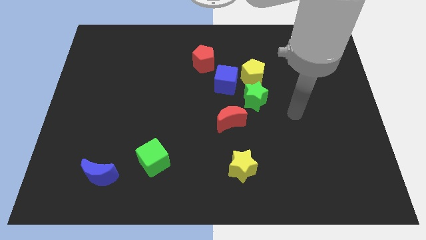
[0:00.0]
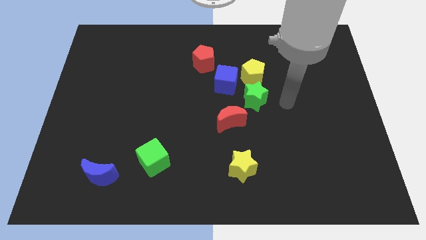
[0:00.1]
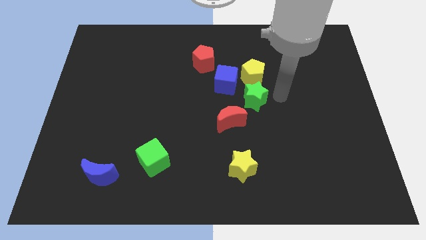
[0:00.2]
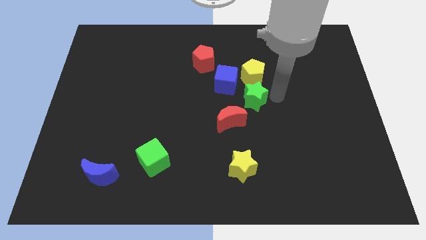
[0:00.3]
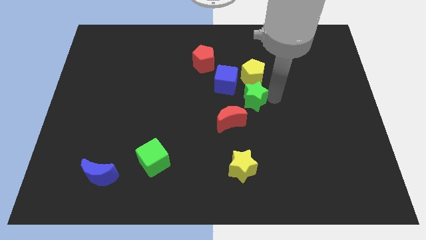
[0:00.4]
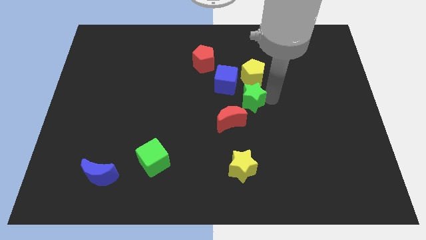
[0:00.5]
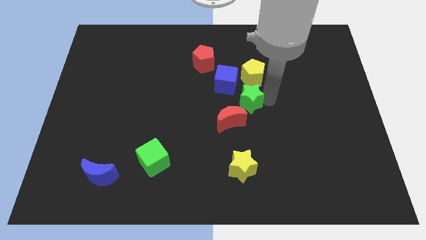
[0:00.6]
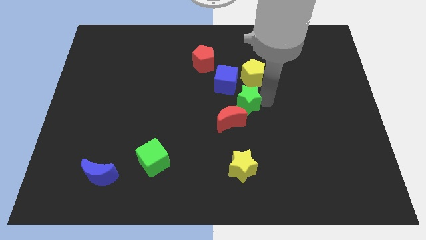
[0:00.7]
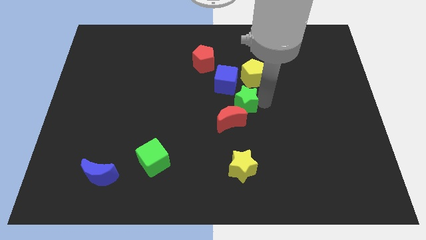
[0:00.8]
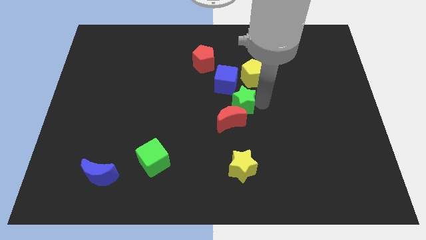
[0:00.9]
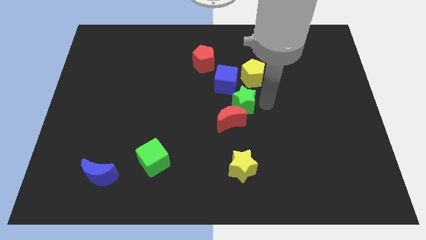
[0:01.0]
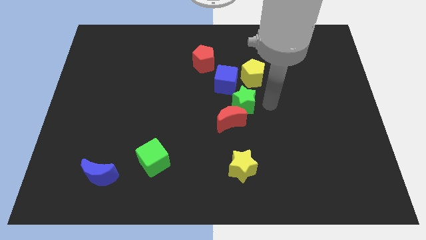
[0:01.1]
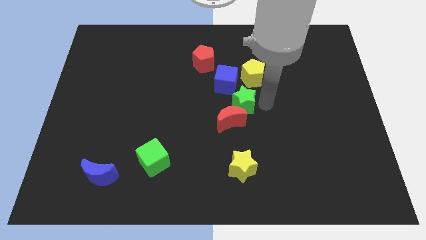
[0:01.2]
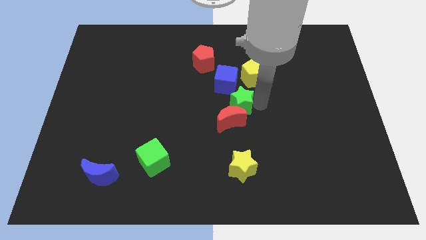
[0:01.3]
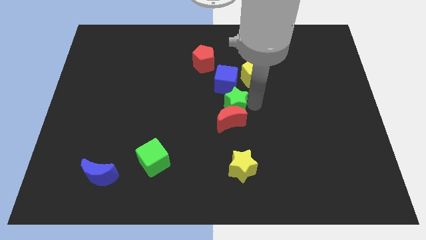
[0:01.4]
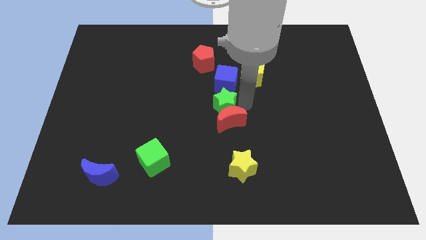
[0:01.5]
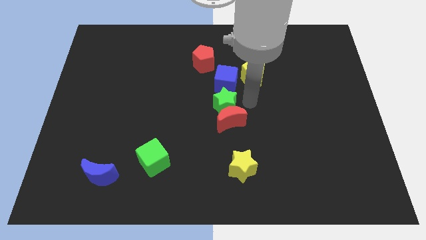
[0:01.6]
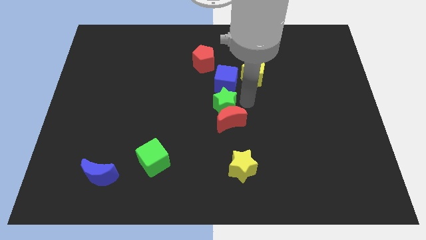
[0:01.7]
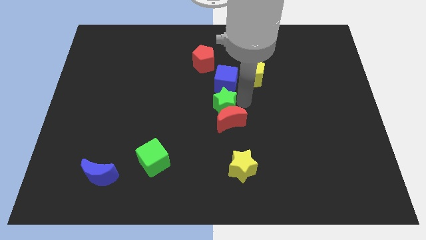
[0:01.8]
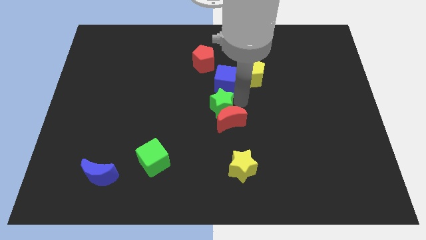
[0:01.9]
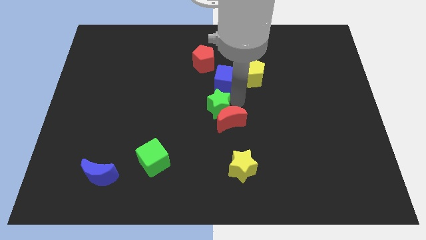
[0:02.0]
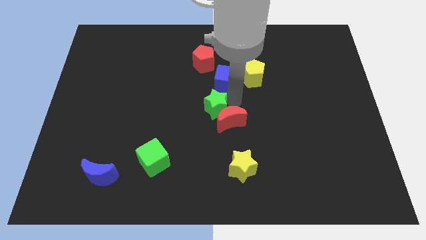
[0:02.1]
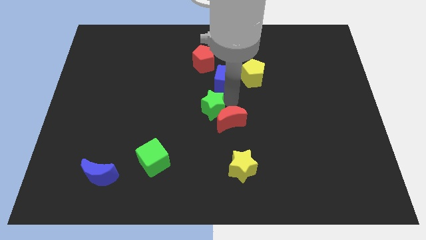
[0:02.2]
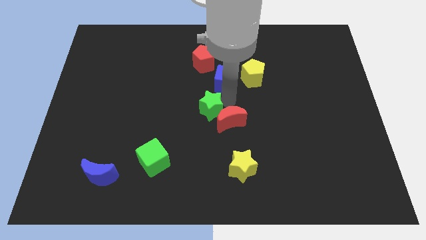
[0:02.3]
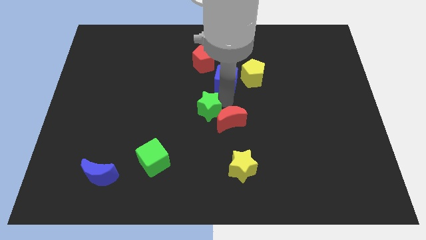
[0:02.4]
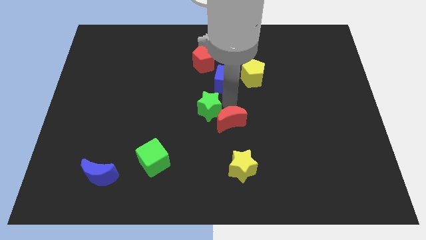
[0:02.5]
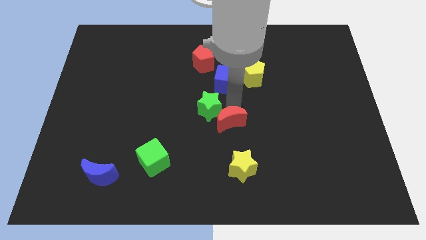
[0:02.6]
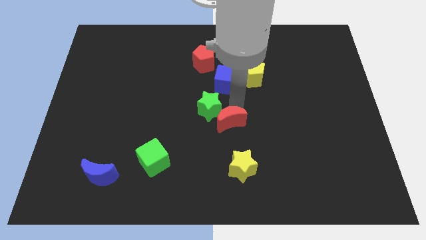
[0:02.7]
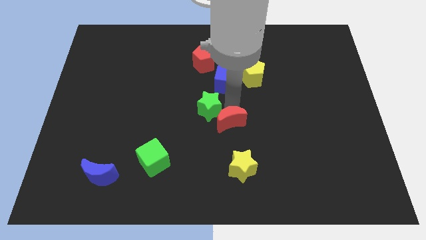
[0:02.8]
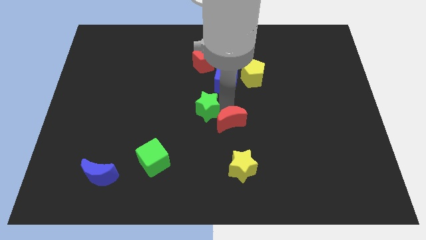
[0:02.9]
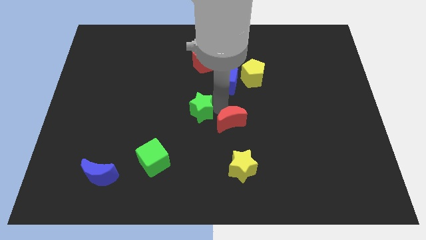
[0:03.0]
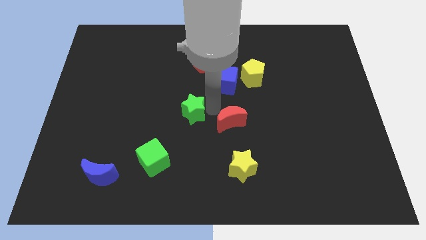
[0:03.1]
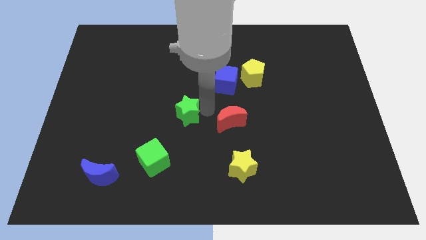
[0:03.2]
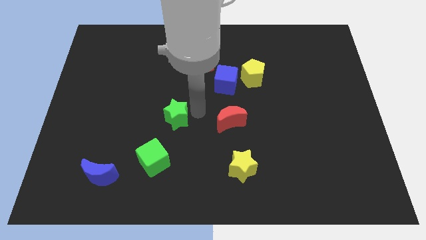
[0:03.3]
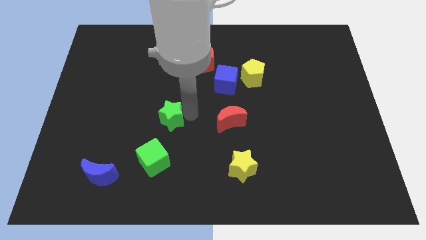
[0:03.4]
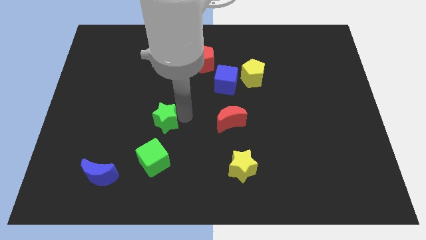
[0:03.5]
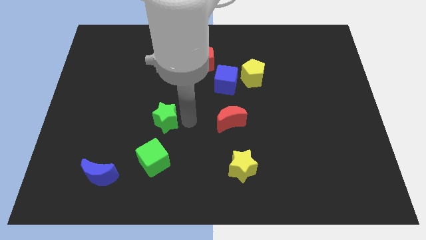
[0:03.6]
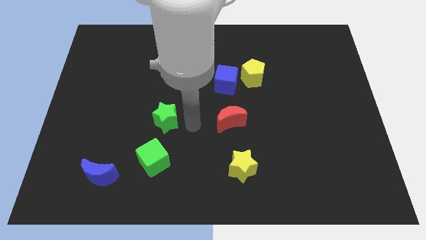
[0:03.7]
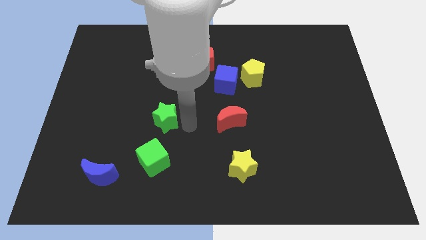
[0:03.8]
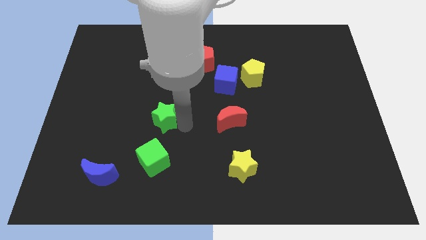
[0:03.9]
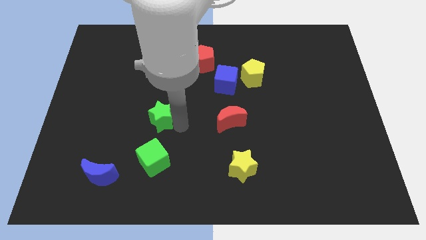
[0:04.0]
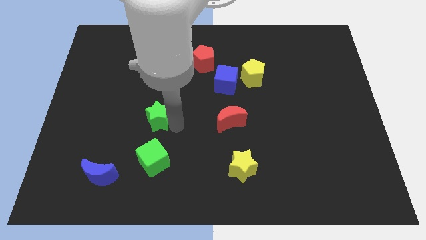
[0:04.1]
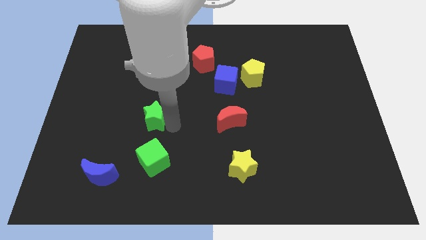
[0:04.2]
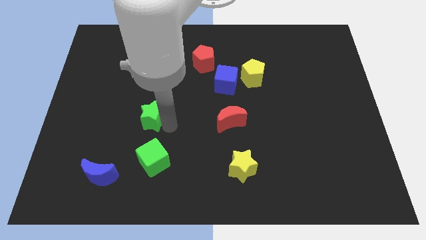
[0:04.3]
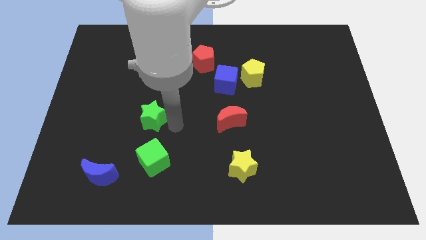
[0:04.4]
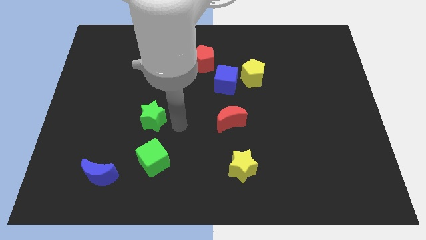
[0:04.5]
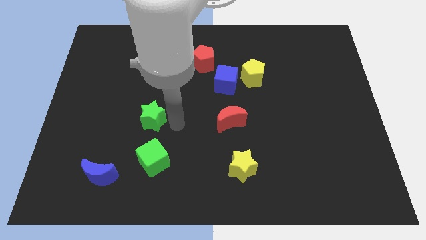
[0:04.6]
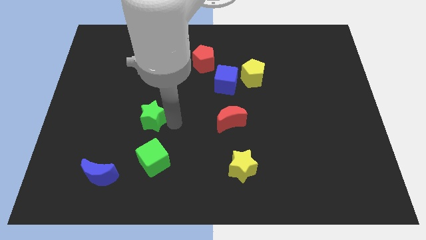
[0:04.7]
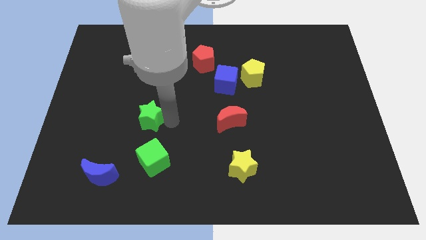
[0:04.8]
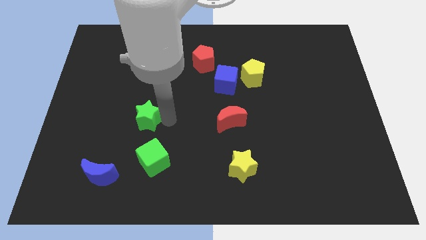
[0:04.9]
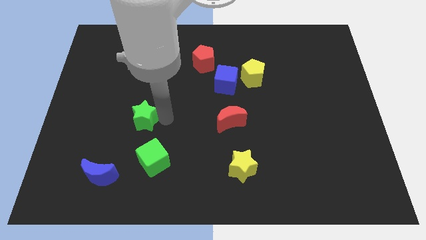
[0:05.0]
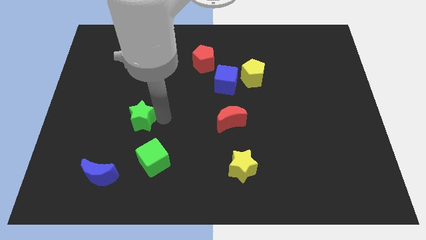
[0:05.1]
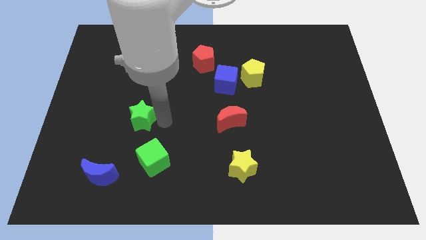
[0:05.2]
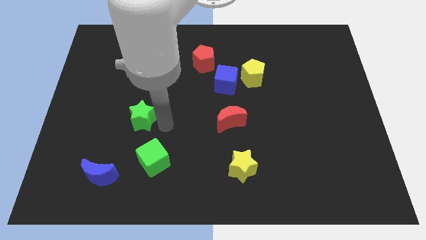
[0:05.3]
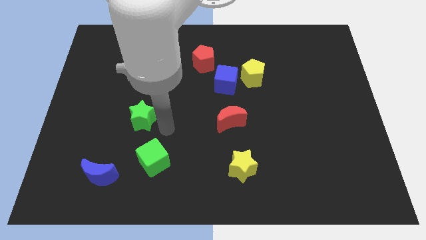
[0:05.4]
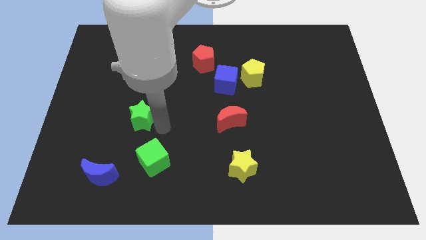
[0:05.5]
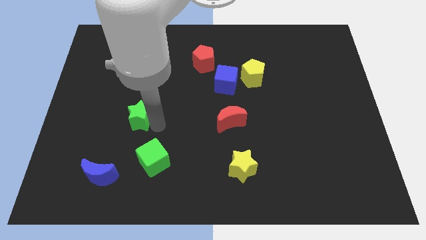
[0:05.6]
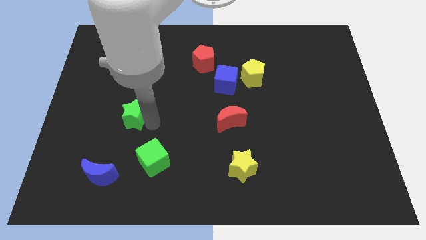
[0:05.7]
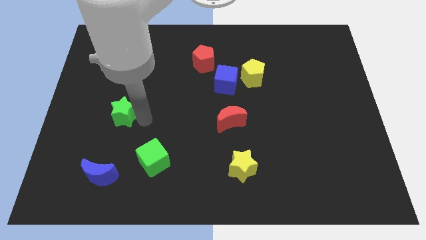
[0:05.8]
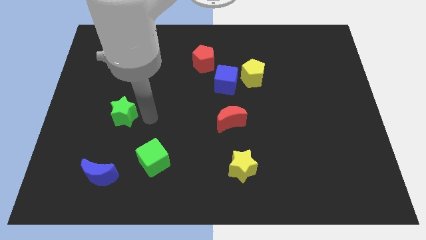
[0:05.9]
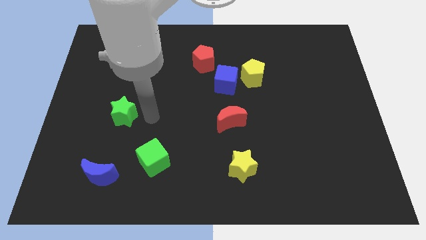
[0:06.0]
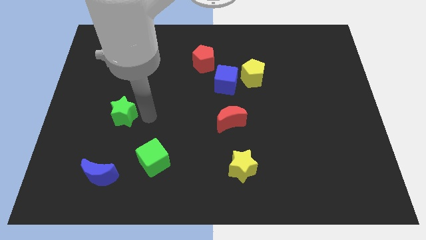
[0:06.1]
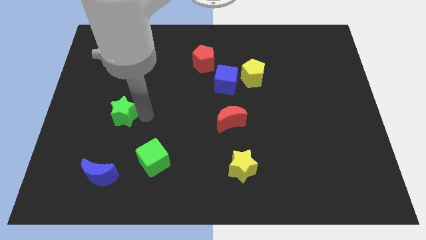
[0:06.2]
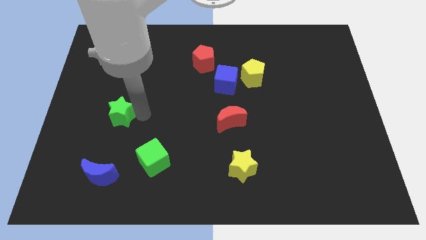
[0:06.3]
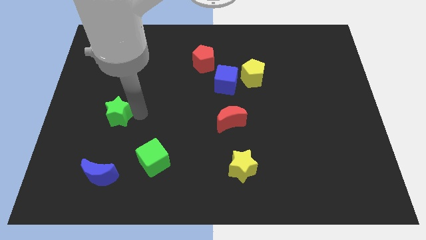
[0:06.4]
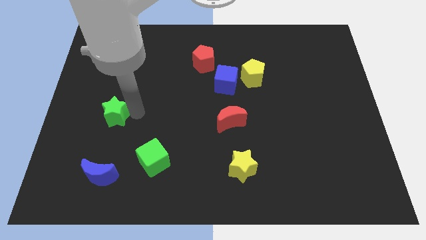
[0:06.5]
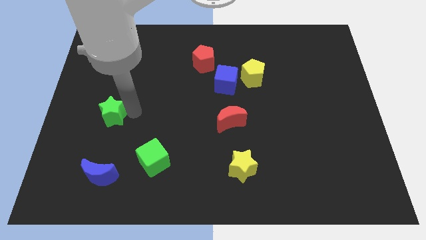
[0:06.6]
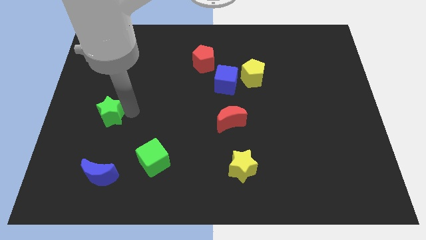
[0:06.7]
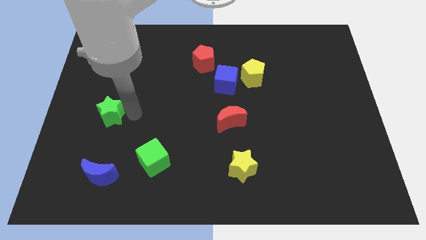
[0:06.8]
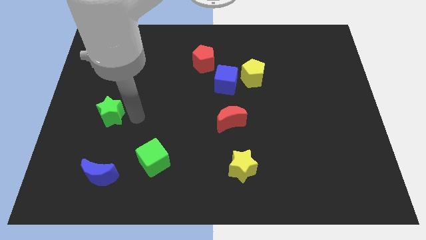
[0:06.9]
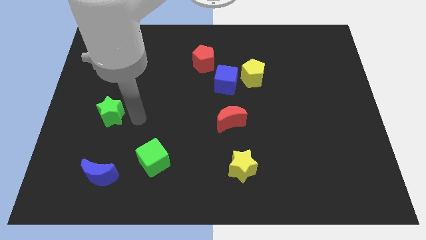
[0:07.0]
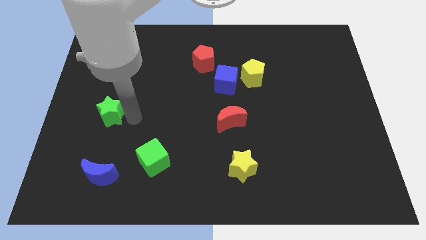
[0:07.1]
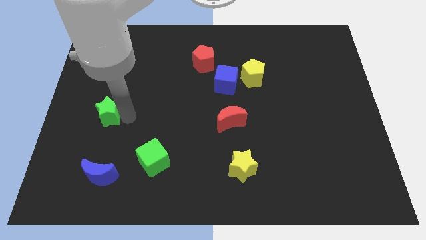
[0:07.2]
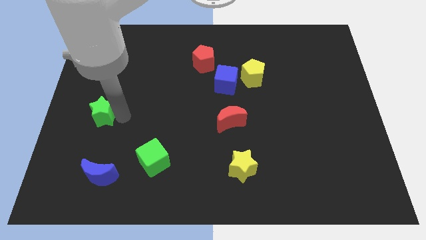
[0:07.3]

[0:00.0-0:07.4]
push the green star to the center left
